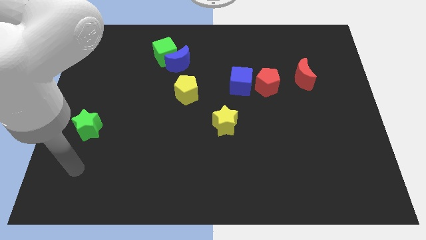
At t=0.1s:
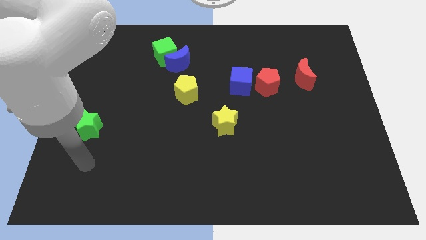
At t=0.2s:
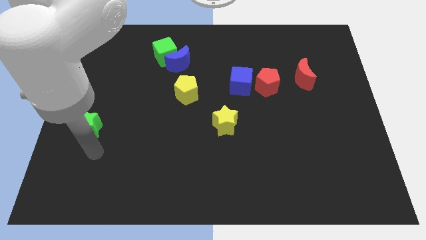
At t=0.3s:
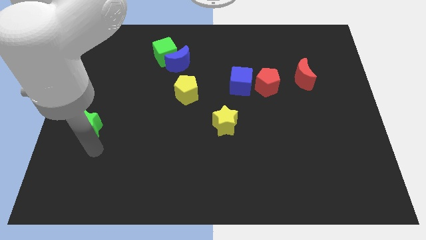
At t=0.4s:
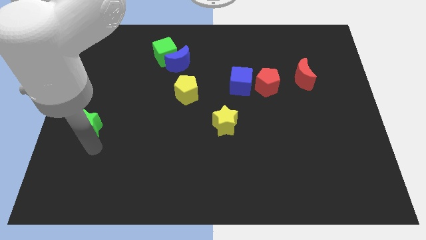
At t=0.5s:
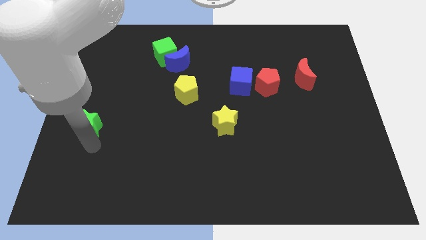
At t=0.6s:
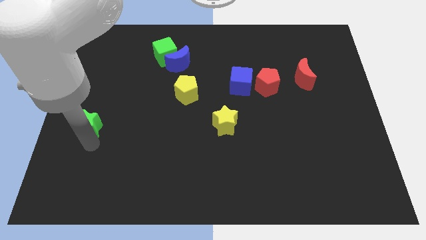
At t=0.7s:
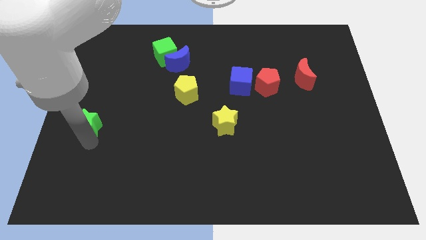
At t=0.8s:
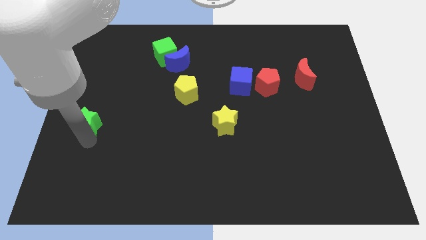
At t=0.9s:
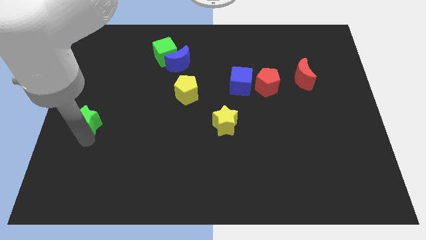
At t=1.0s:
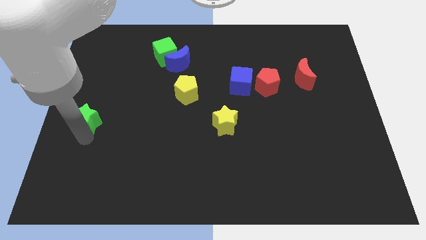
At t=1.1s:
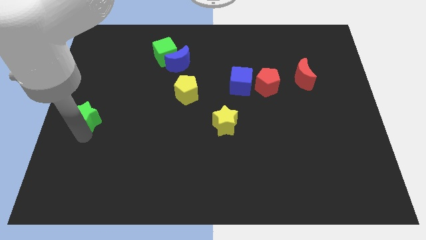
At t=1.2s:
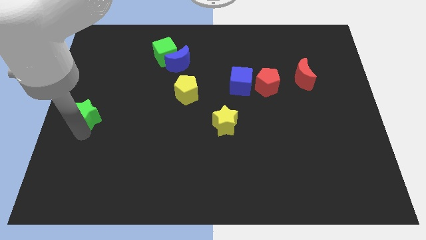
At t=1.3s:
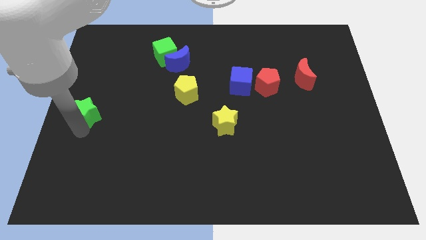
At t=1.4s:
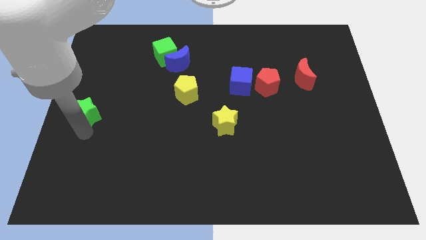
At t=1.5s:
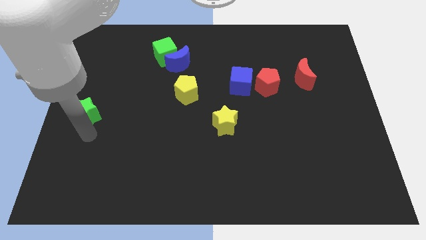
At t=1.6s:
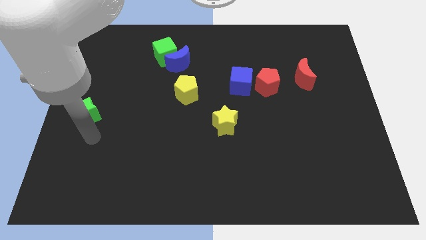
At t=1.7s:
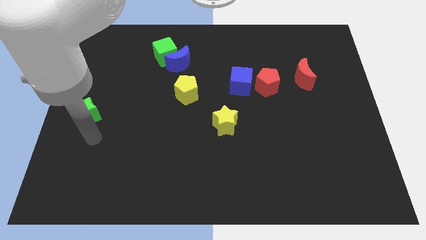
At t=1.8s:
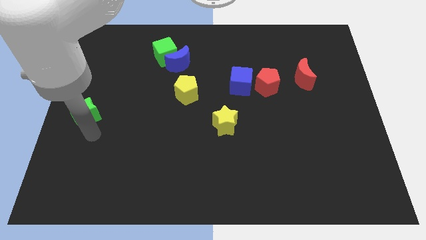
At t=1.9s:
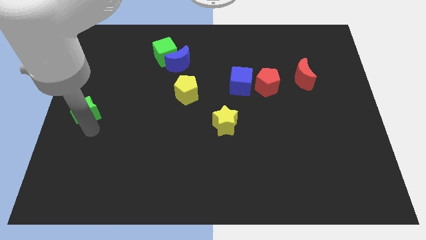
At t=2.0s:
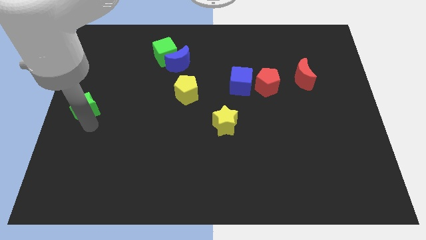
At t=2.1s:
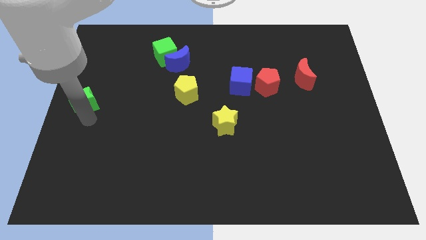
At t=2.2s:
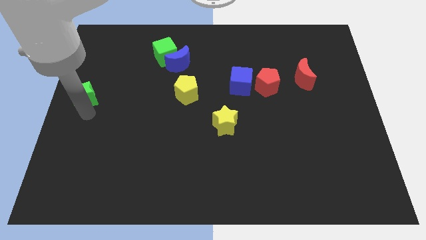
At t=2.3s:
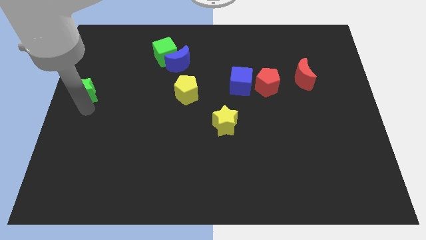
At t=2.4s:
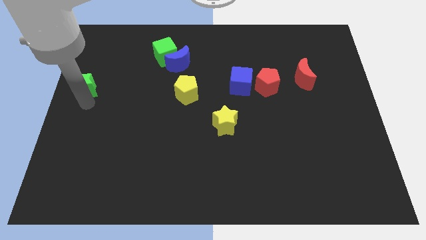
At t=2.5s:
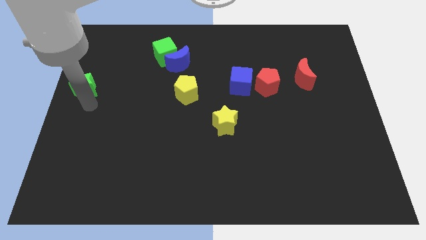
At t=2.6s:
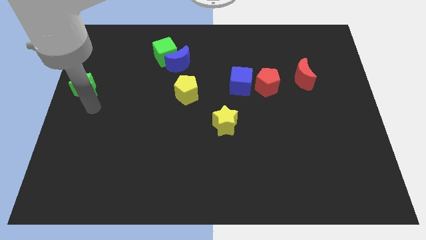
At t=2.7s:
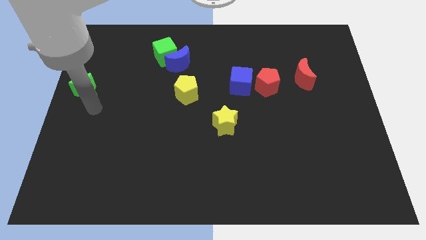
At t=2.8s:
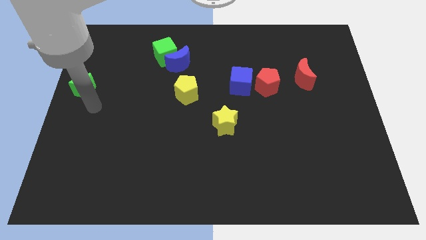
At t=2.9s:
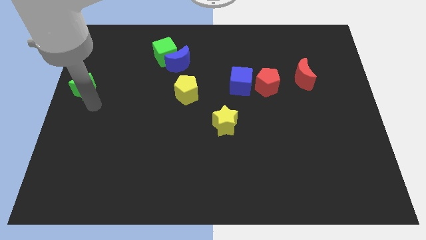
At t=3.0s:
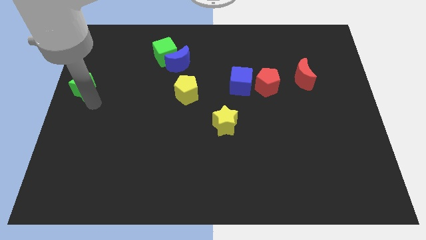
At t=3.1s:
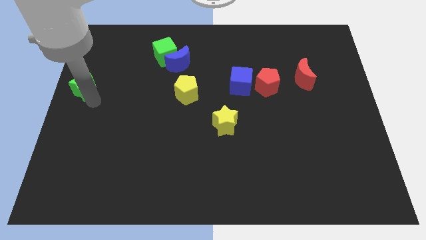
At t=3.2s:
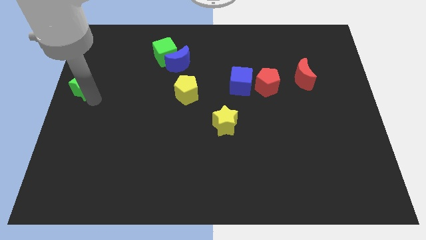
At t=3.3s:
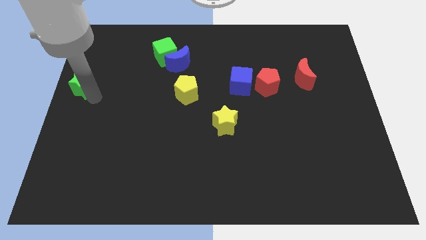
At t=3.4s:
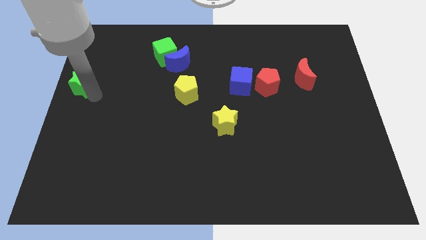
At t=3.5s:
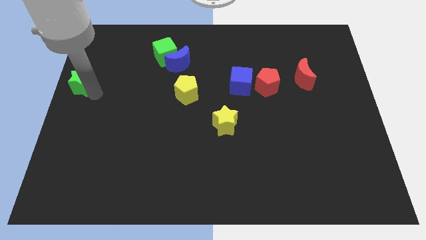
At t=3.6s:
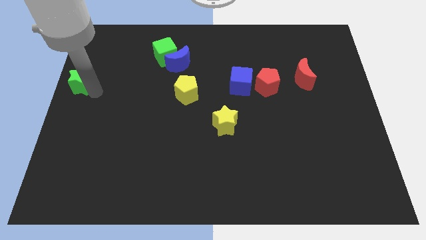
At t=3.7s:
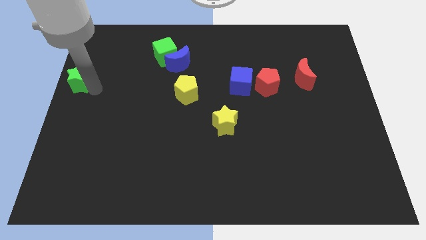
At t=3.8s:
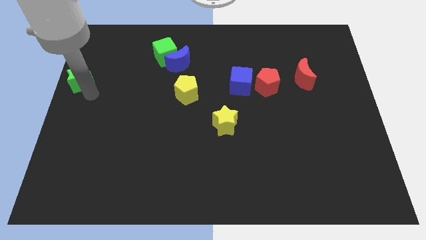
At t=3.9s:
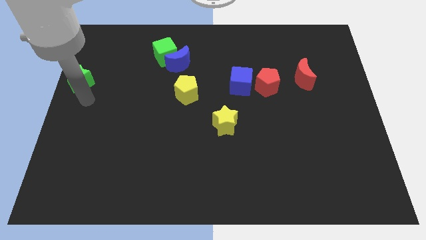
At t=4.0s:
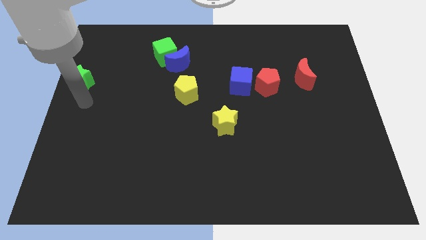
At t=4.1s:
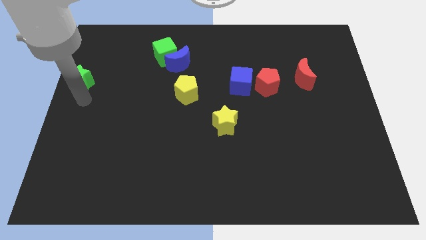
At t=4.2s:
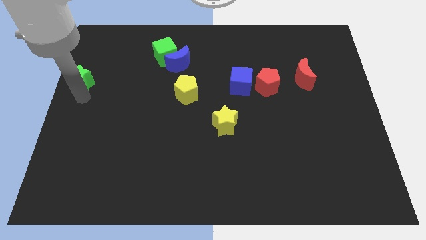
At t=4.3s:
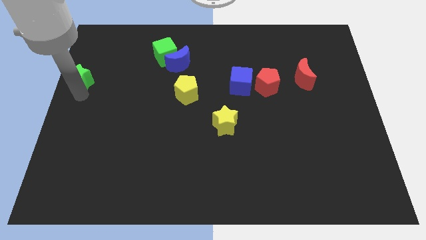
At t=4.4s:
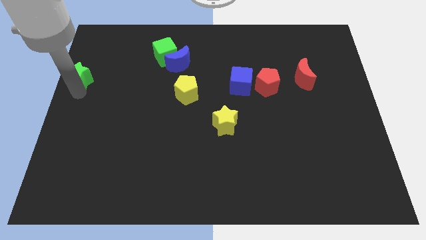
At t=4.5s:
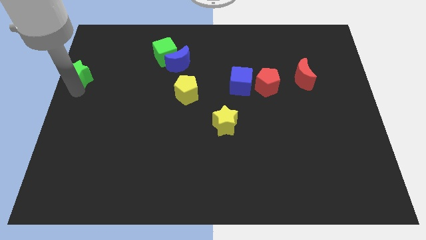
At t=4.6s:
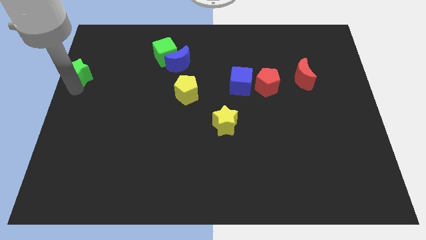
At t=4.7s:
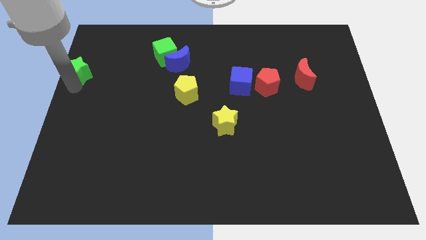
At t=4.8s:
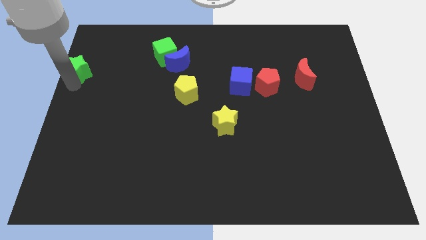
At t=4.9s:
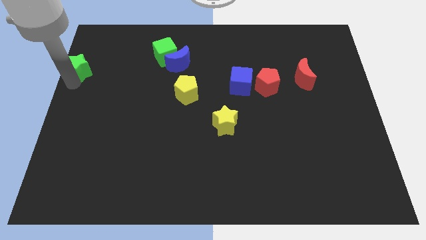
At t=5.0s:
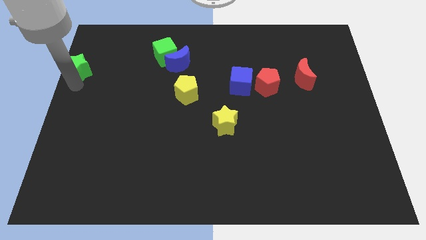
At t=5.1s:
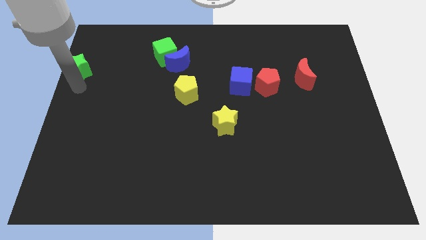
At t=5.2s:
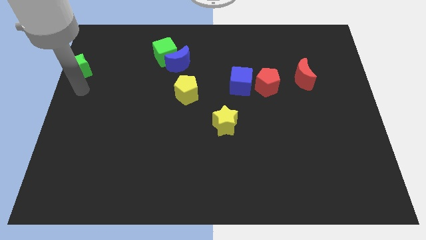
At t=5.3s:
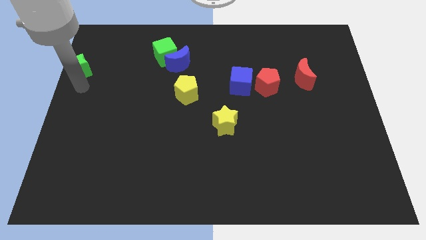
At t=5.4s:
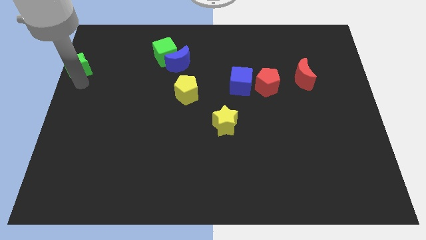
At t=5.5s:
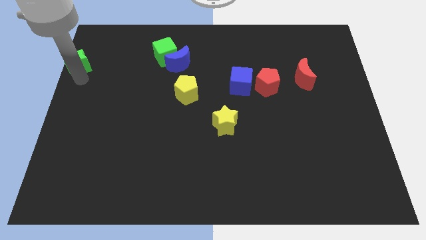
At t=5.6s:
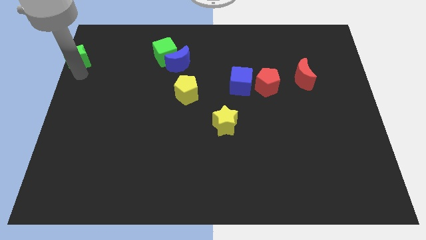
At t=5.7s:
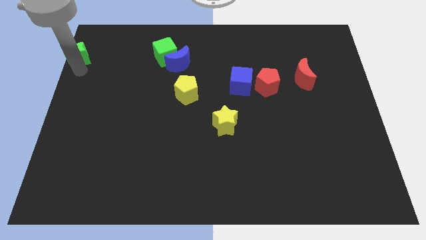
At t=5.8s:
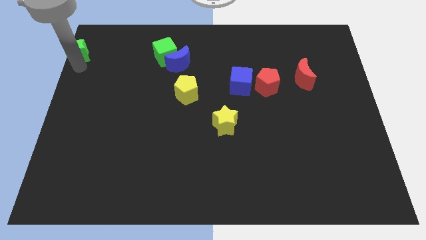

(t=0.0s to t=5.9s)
move the green star to the top left of the board
